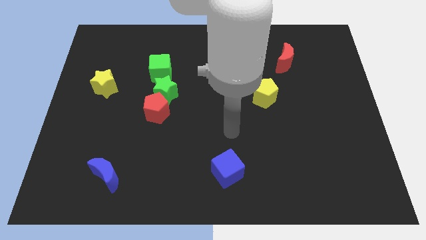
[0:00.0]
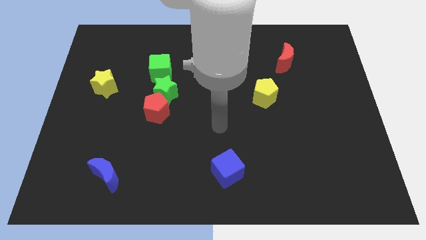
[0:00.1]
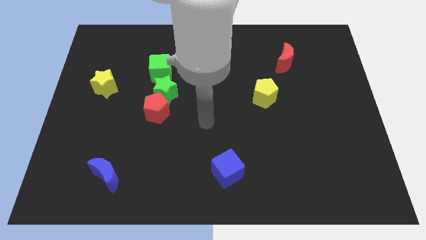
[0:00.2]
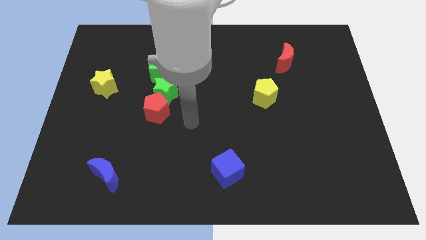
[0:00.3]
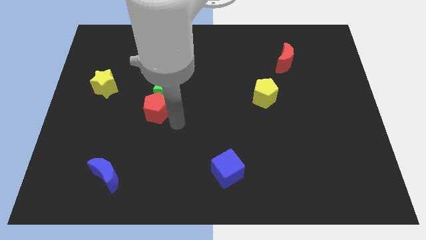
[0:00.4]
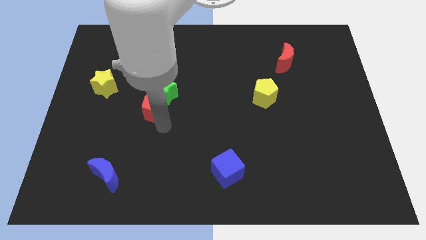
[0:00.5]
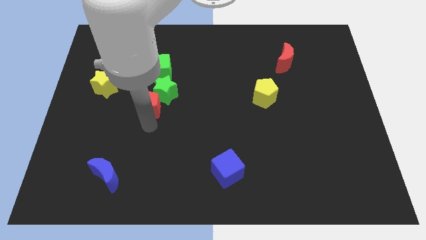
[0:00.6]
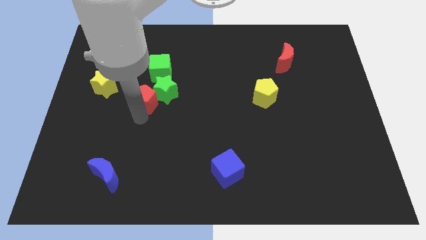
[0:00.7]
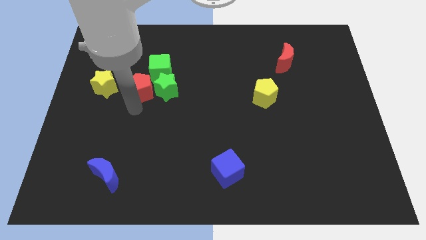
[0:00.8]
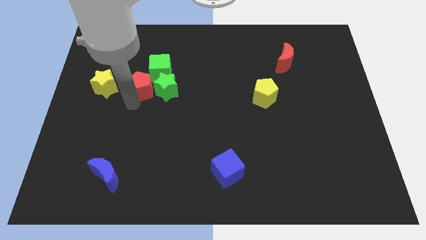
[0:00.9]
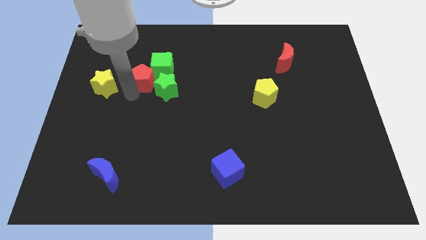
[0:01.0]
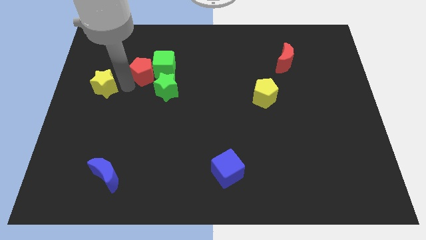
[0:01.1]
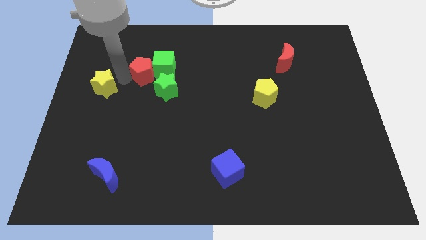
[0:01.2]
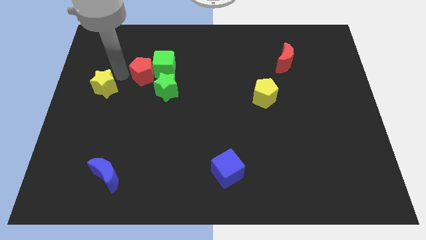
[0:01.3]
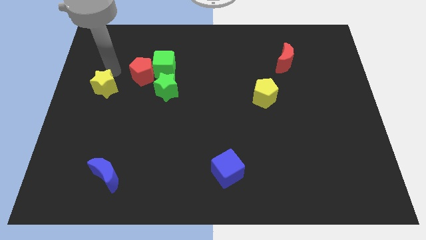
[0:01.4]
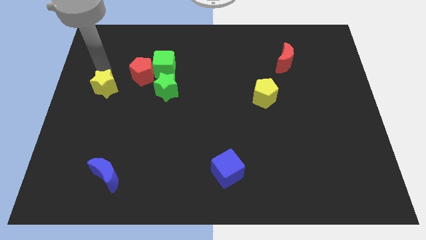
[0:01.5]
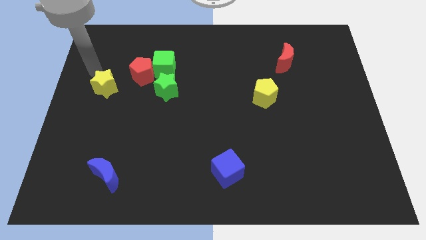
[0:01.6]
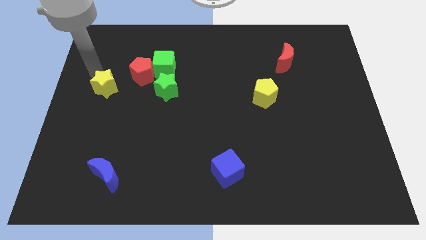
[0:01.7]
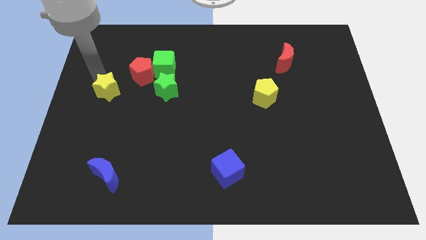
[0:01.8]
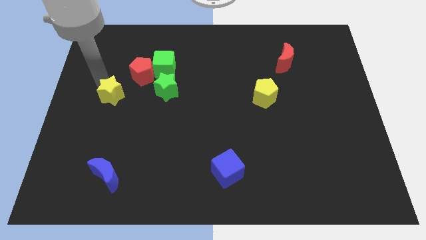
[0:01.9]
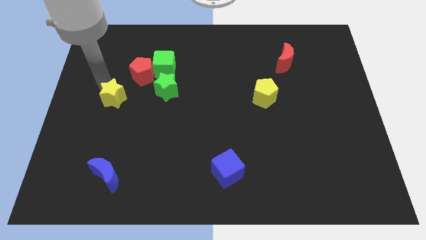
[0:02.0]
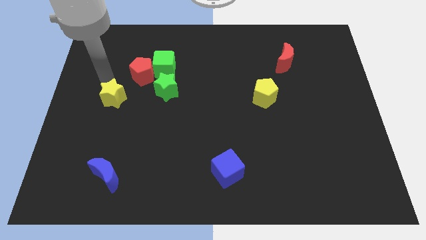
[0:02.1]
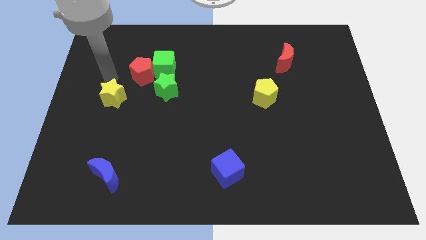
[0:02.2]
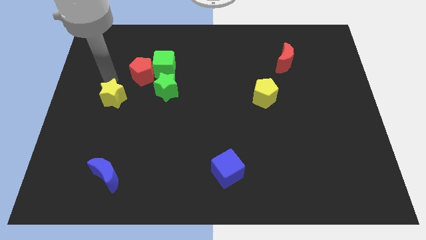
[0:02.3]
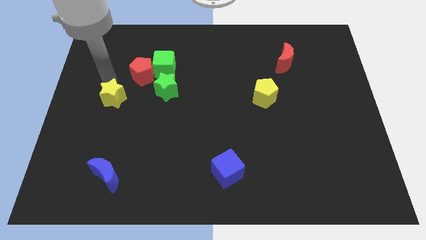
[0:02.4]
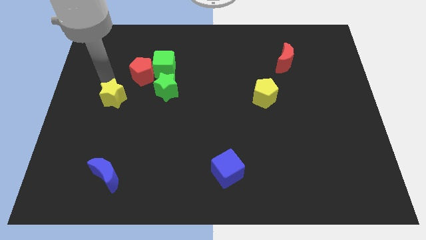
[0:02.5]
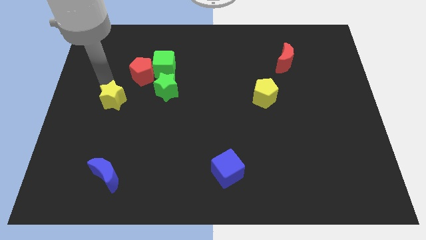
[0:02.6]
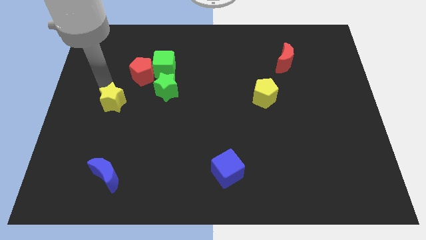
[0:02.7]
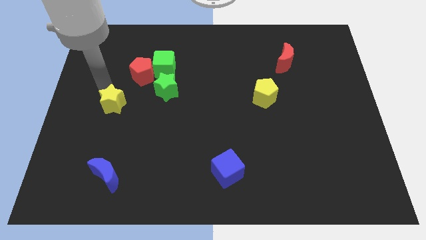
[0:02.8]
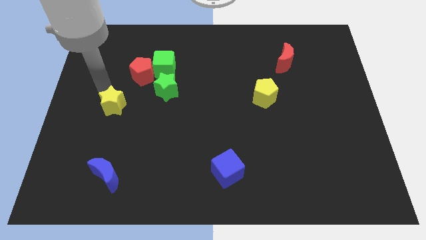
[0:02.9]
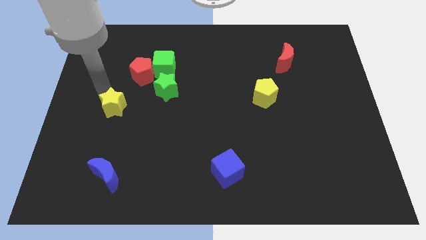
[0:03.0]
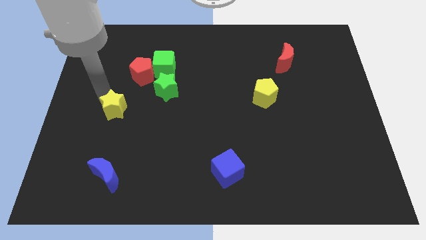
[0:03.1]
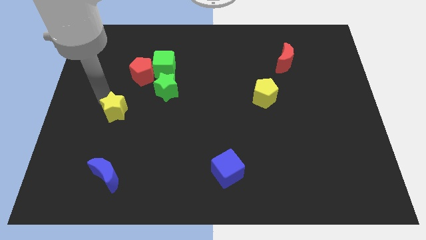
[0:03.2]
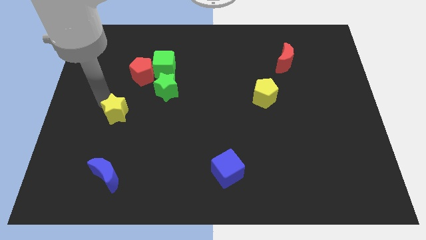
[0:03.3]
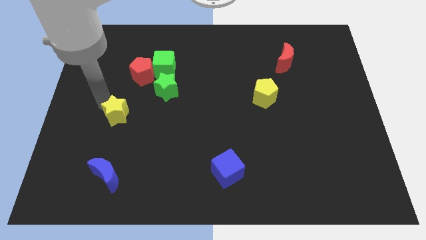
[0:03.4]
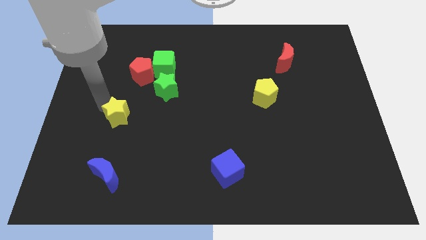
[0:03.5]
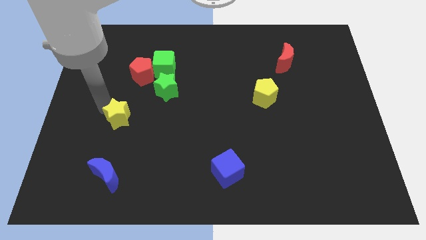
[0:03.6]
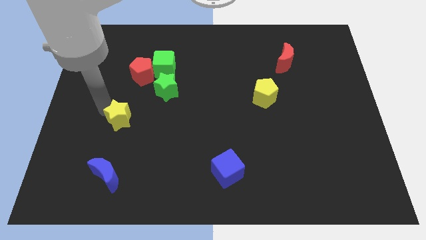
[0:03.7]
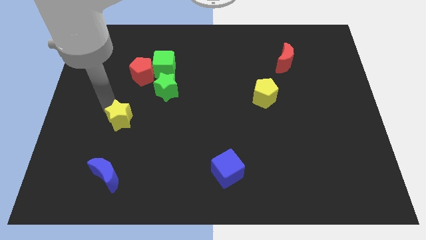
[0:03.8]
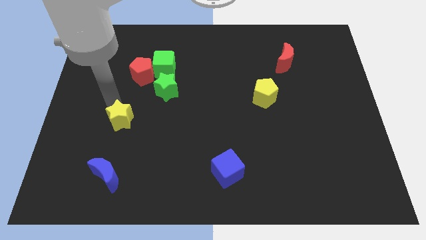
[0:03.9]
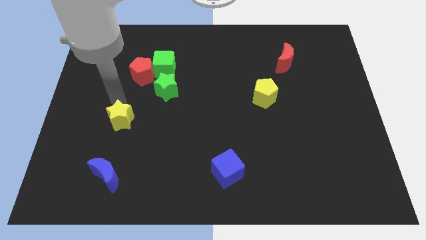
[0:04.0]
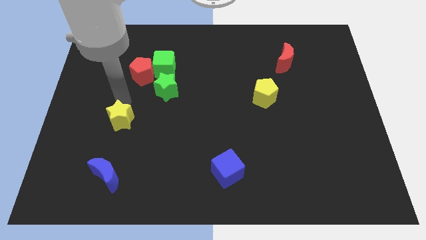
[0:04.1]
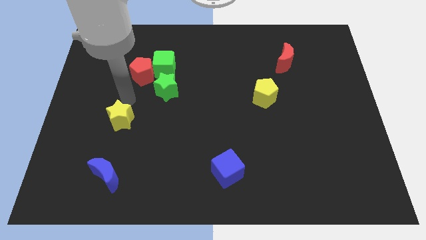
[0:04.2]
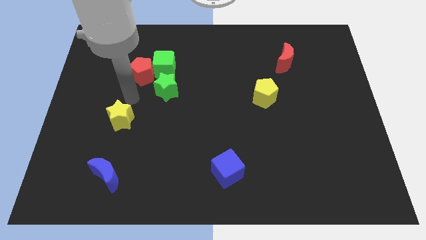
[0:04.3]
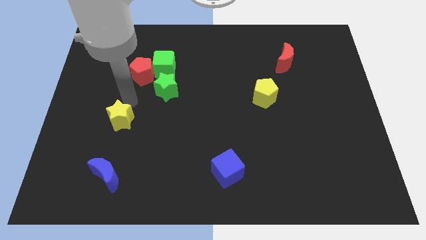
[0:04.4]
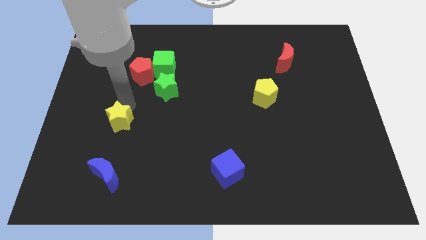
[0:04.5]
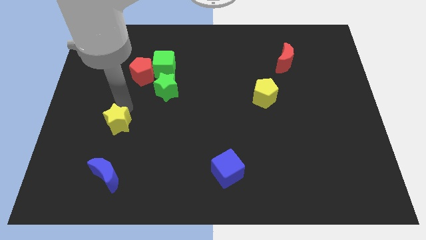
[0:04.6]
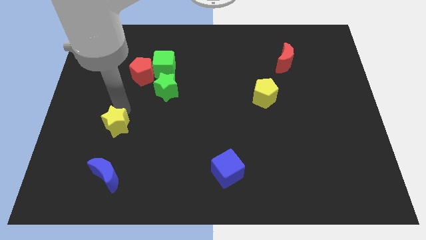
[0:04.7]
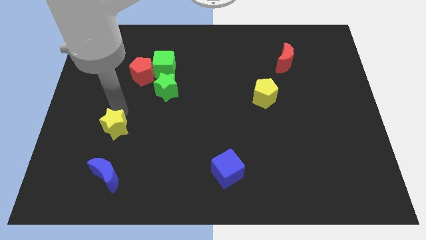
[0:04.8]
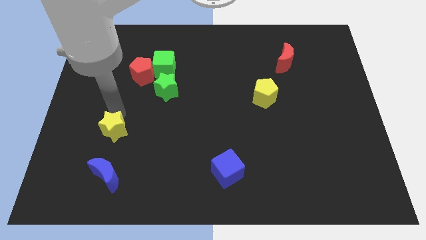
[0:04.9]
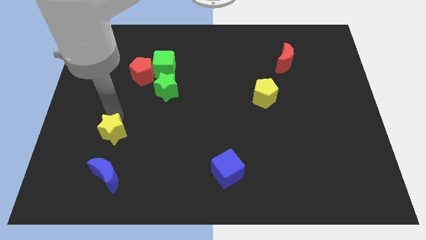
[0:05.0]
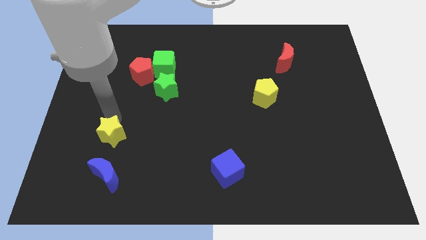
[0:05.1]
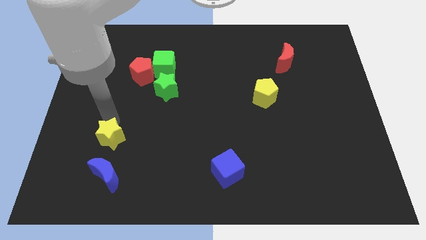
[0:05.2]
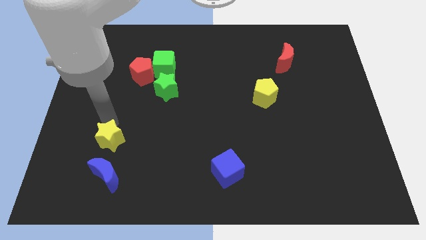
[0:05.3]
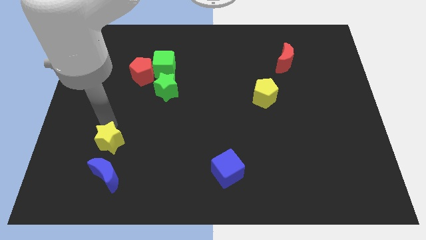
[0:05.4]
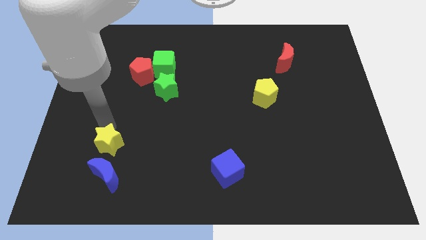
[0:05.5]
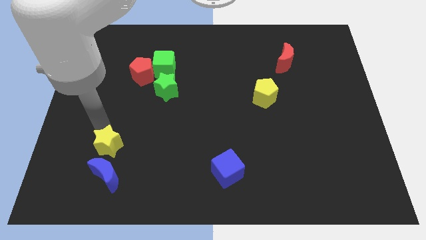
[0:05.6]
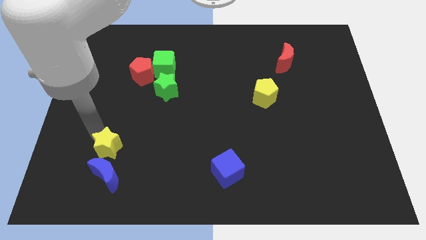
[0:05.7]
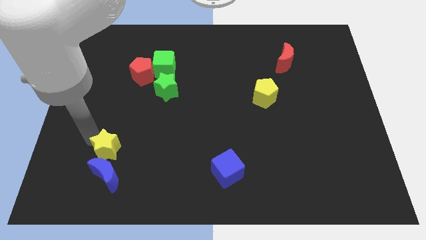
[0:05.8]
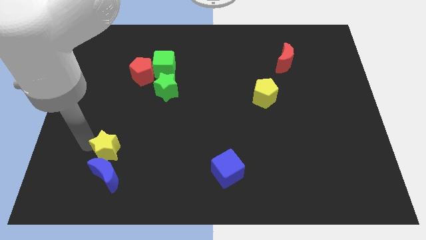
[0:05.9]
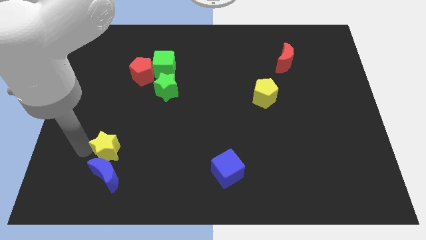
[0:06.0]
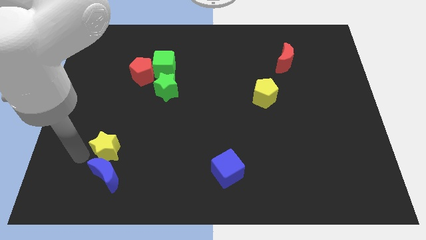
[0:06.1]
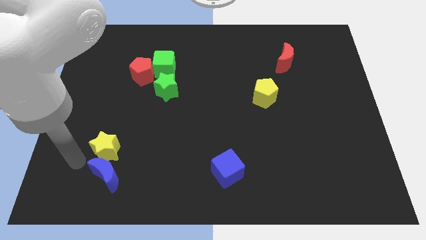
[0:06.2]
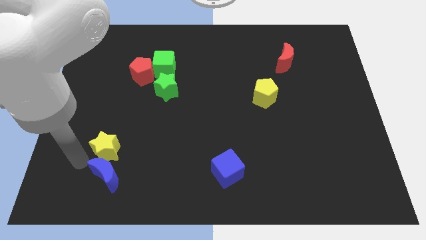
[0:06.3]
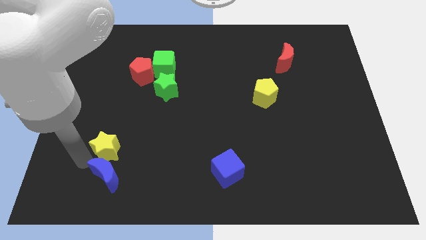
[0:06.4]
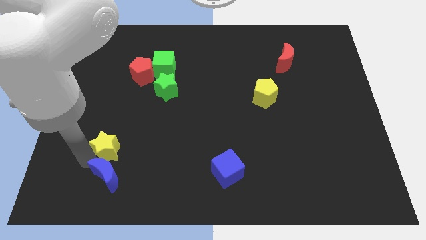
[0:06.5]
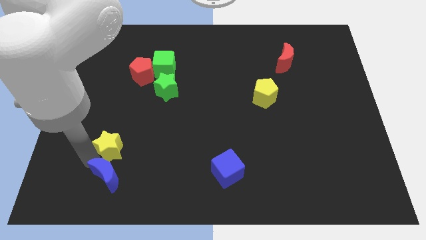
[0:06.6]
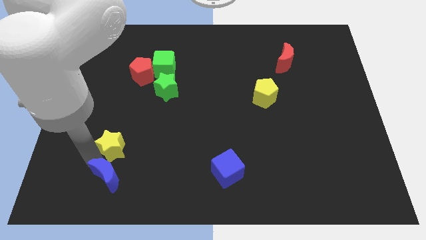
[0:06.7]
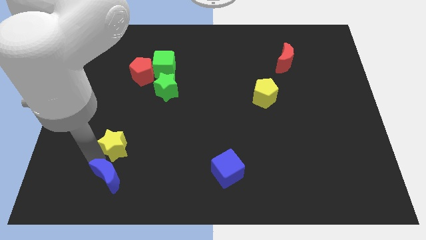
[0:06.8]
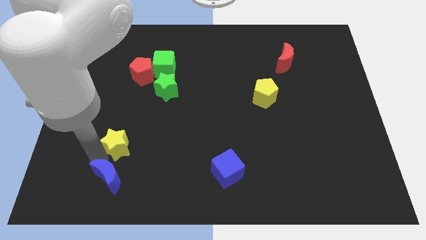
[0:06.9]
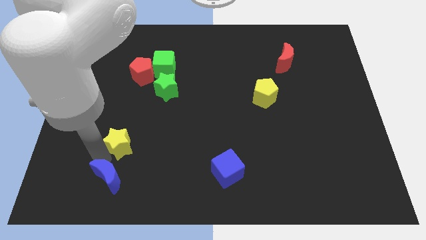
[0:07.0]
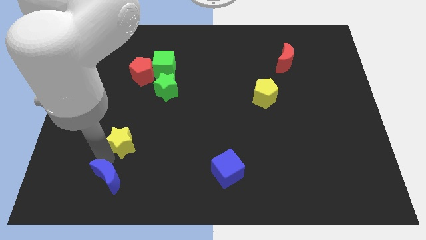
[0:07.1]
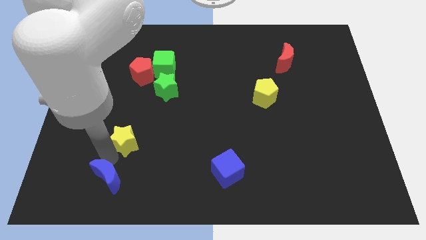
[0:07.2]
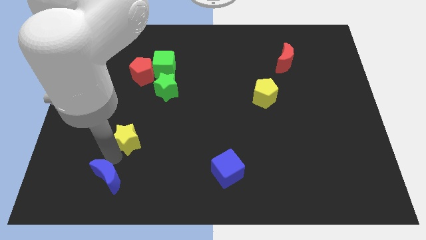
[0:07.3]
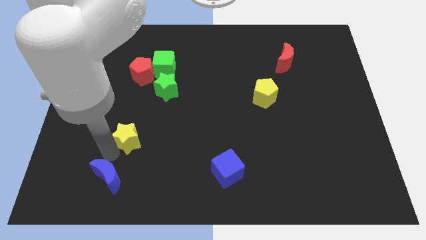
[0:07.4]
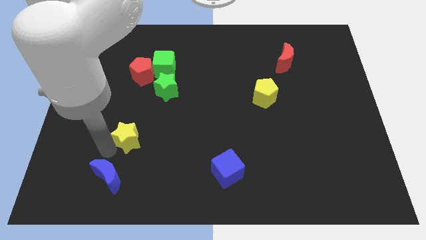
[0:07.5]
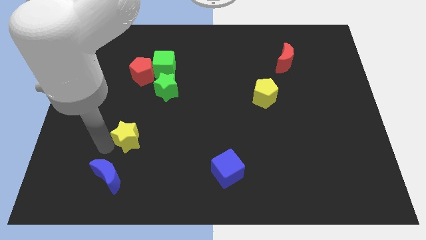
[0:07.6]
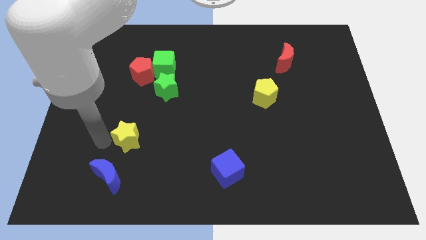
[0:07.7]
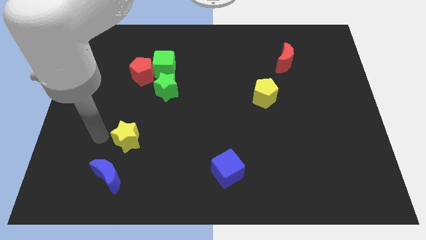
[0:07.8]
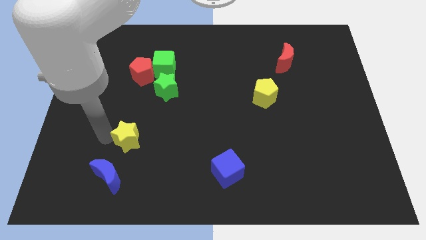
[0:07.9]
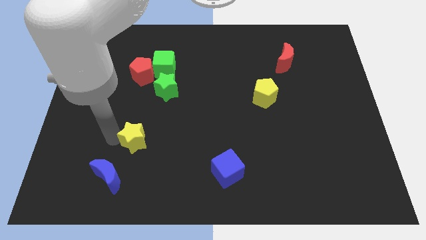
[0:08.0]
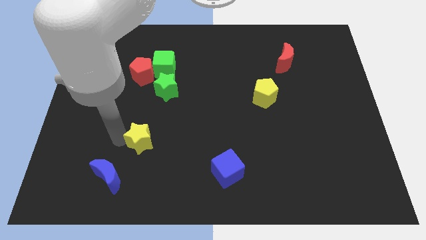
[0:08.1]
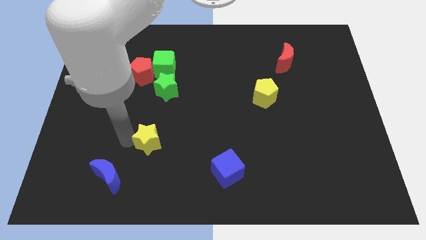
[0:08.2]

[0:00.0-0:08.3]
slide the yellow star diagonally down and to the right

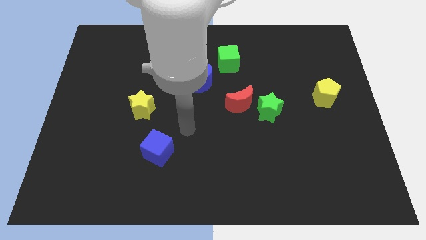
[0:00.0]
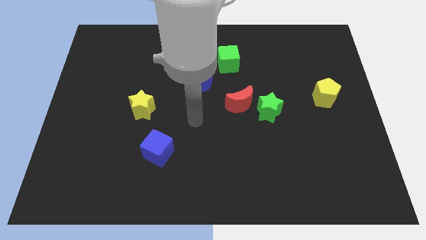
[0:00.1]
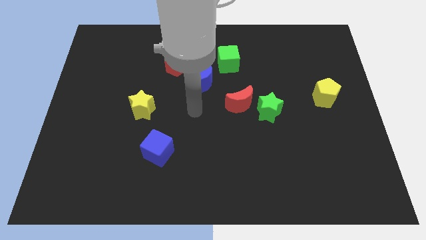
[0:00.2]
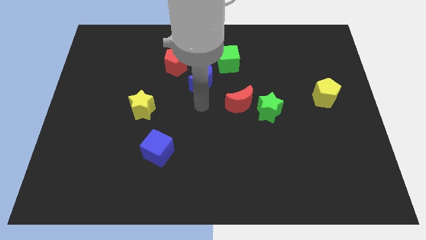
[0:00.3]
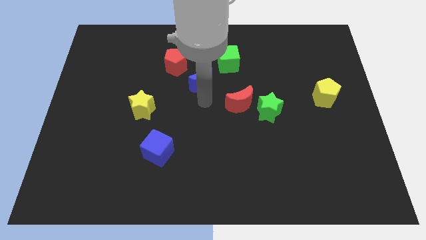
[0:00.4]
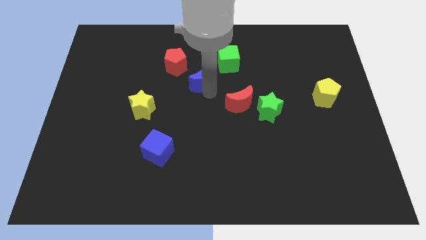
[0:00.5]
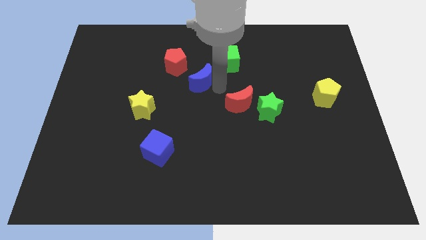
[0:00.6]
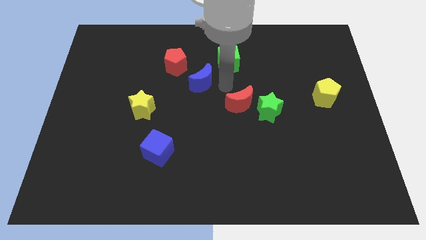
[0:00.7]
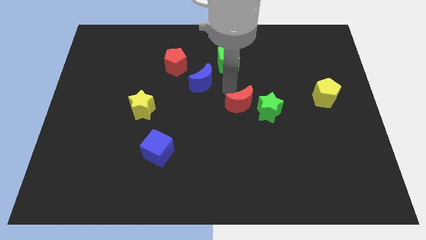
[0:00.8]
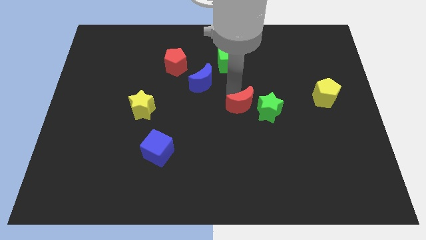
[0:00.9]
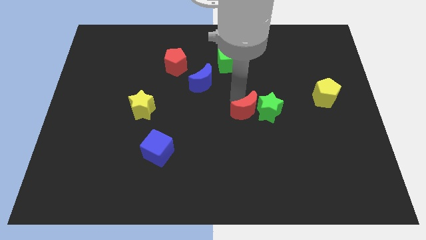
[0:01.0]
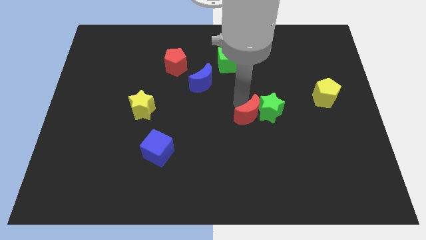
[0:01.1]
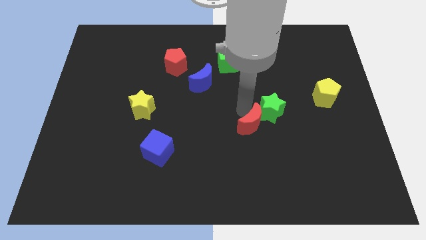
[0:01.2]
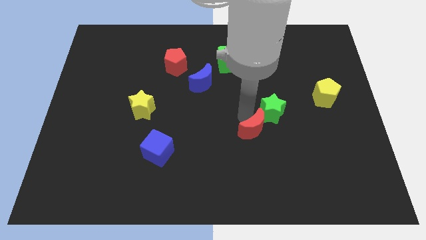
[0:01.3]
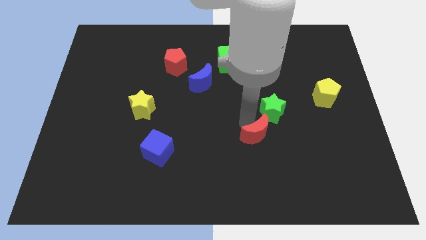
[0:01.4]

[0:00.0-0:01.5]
push the red moon a little diagonally down and right
